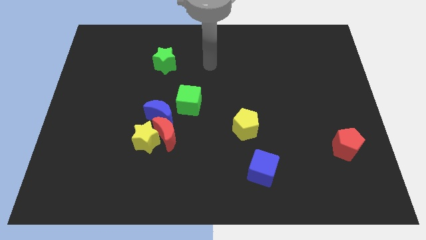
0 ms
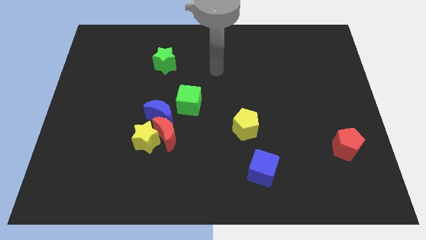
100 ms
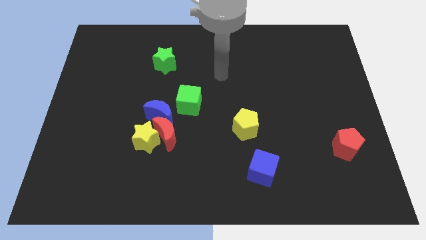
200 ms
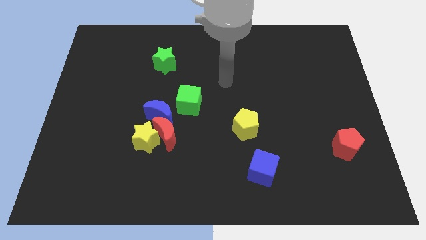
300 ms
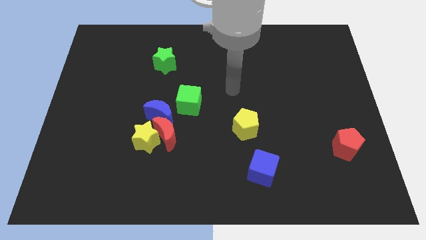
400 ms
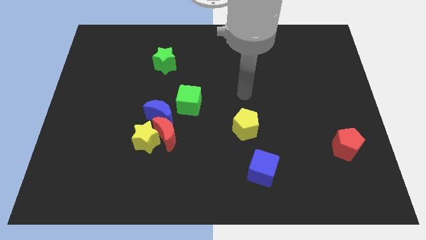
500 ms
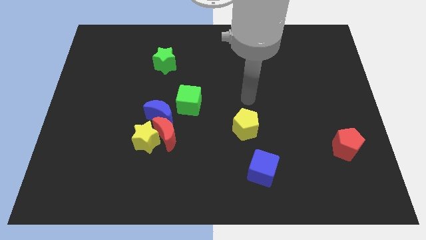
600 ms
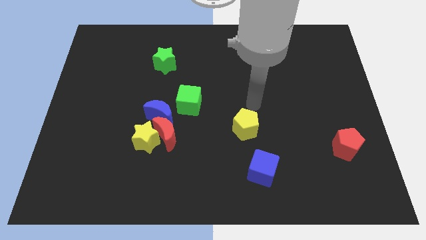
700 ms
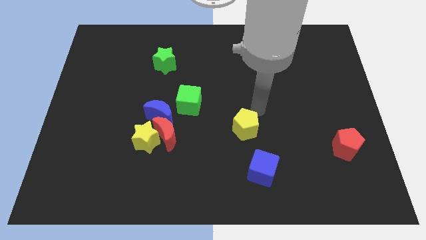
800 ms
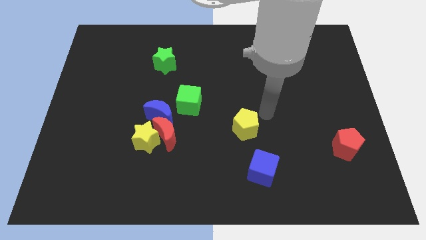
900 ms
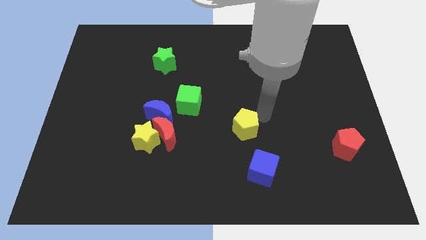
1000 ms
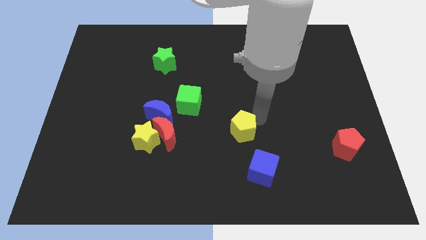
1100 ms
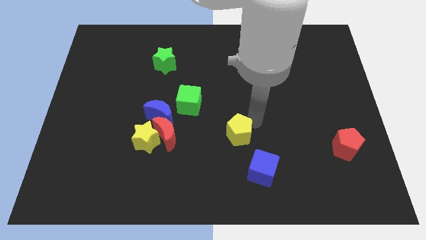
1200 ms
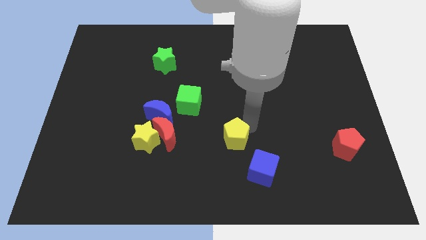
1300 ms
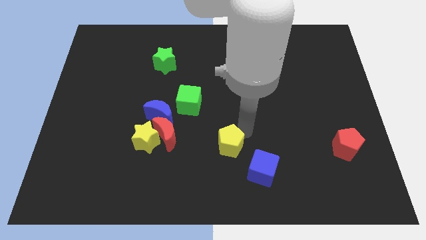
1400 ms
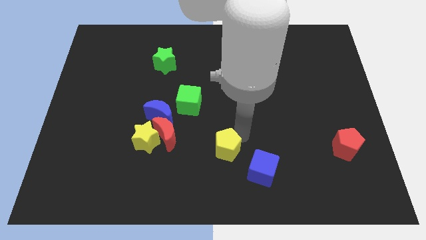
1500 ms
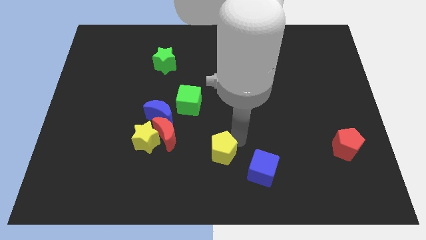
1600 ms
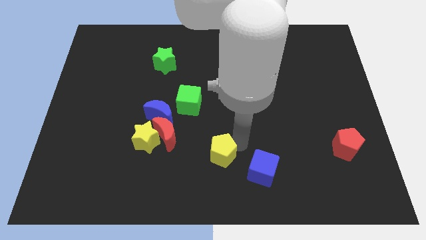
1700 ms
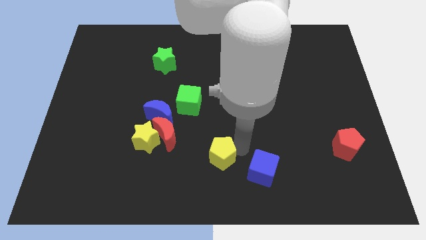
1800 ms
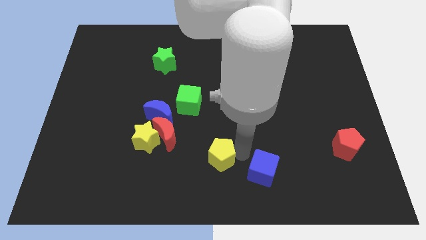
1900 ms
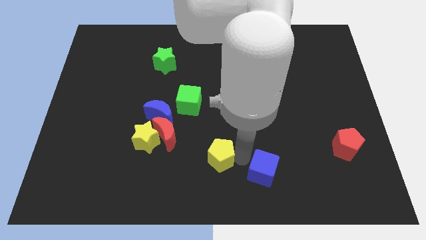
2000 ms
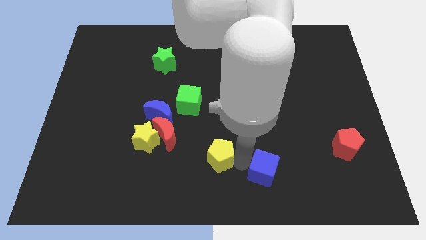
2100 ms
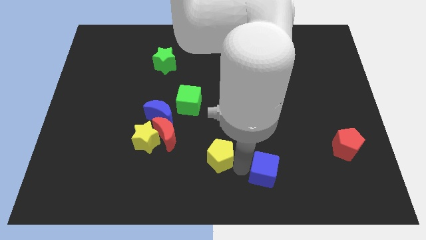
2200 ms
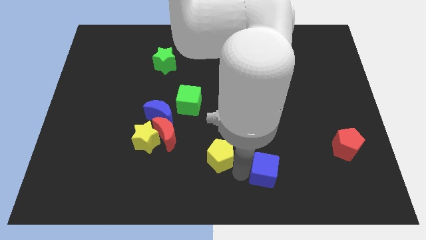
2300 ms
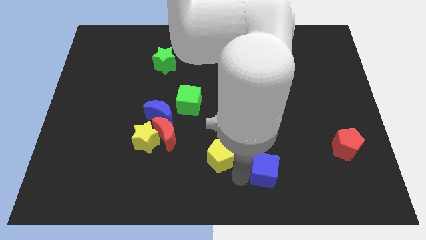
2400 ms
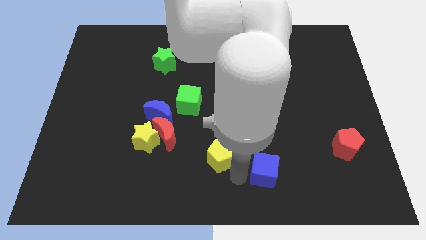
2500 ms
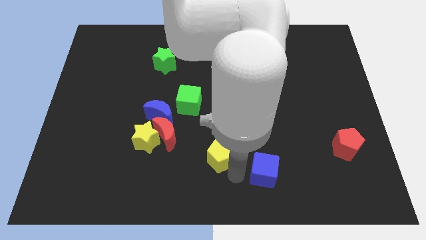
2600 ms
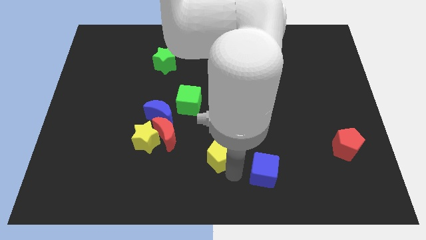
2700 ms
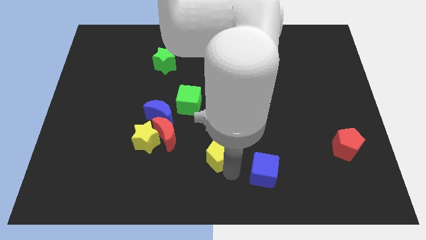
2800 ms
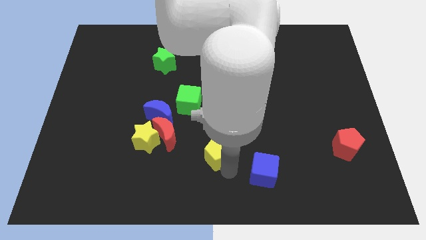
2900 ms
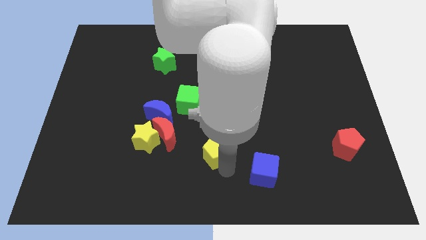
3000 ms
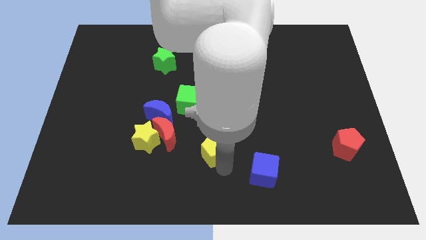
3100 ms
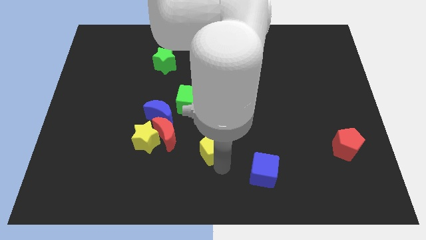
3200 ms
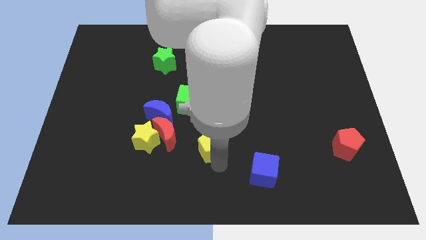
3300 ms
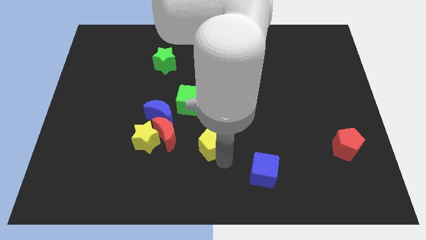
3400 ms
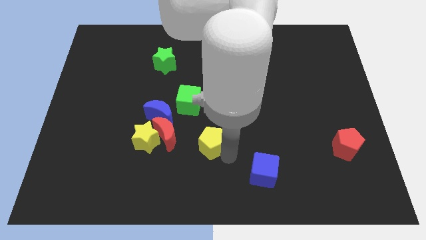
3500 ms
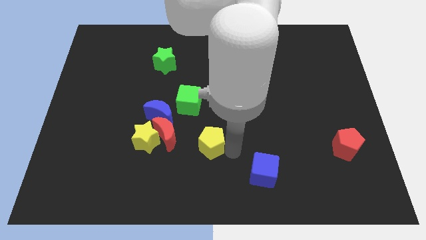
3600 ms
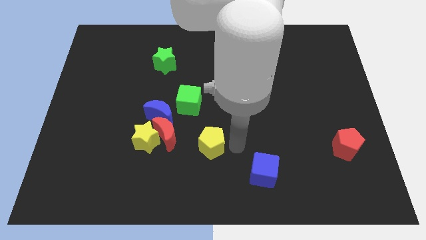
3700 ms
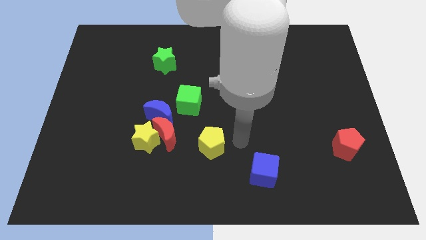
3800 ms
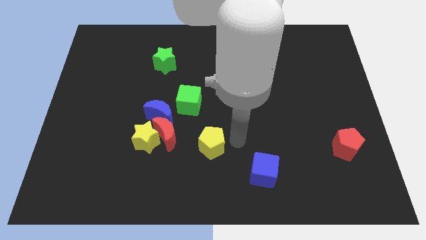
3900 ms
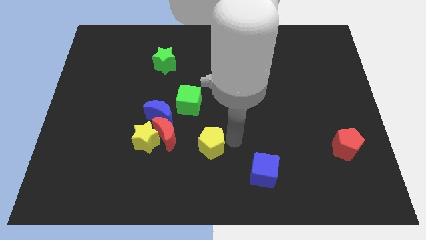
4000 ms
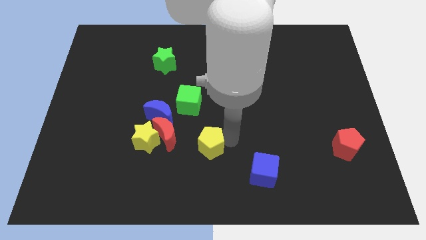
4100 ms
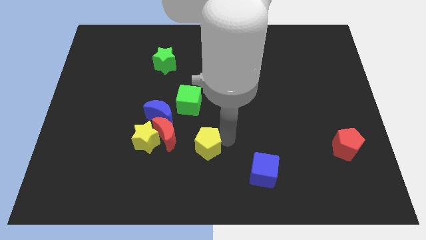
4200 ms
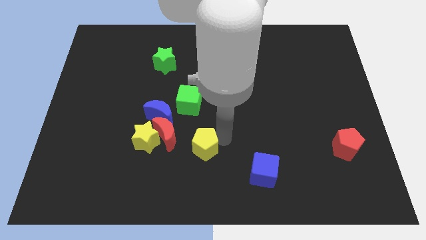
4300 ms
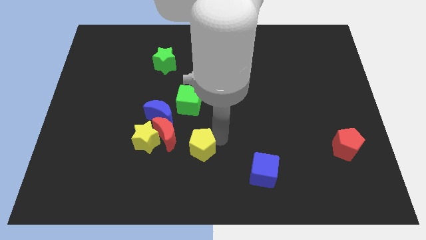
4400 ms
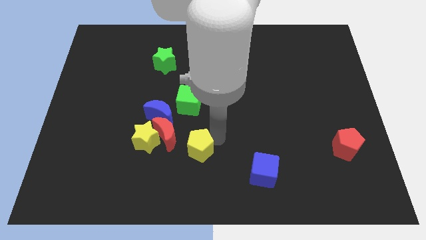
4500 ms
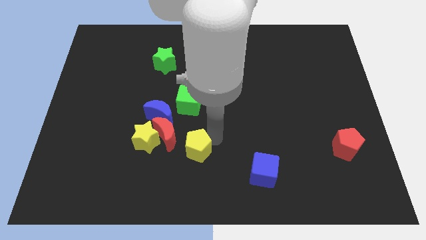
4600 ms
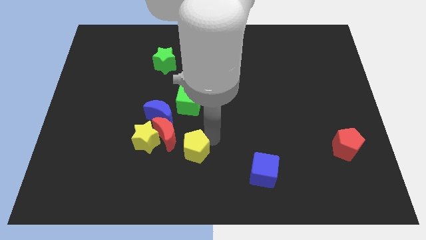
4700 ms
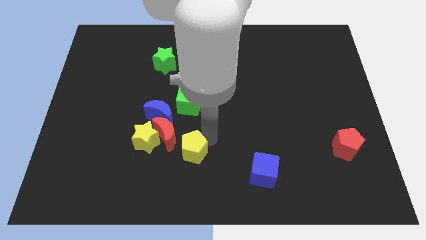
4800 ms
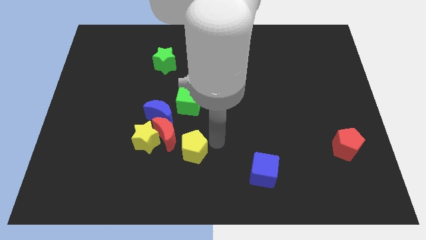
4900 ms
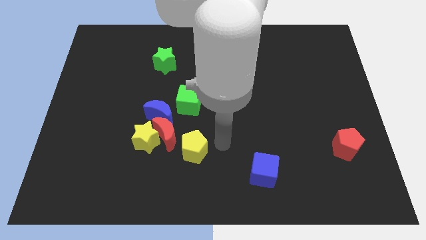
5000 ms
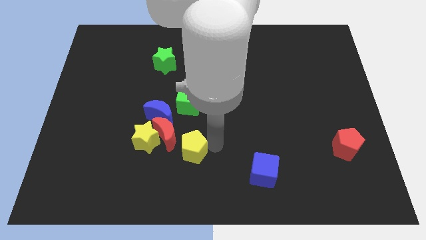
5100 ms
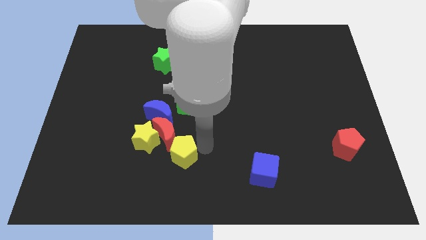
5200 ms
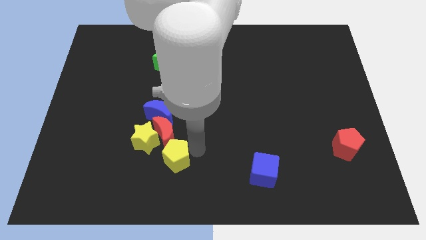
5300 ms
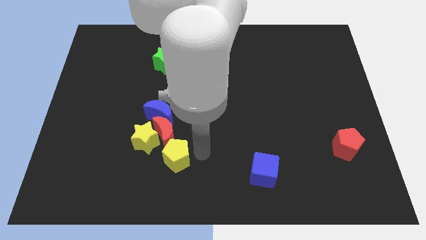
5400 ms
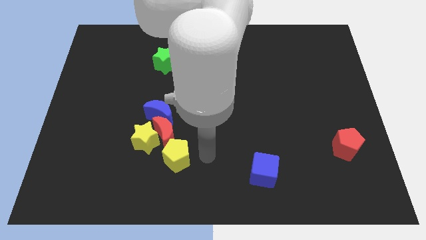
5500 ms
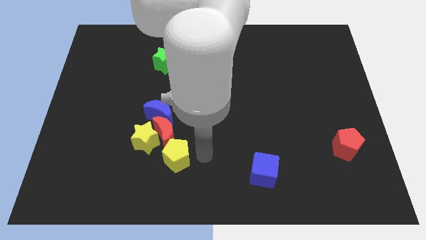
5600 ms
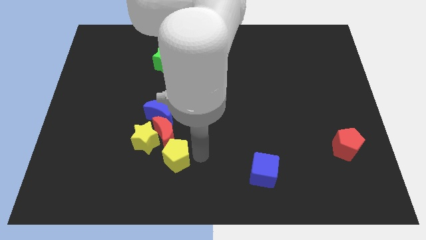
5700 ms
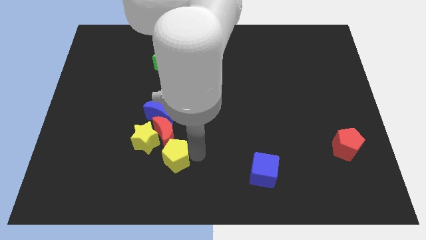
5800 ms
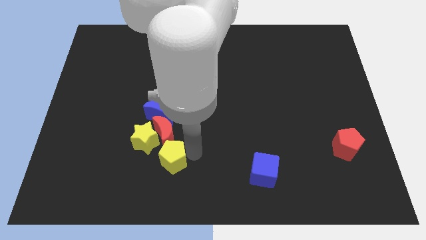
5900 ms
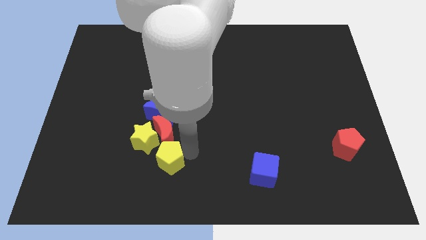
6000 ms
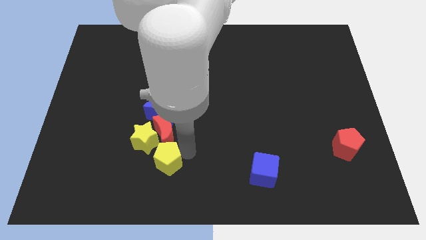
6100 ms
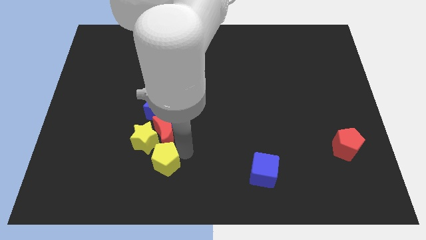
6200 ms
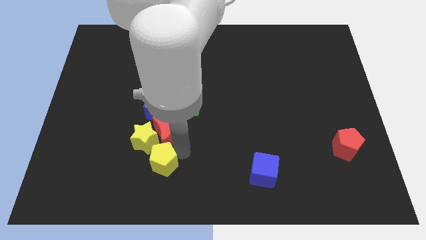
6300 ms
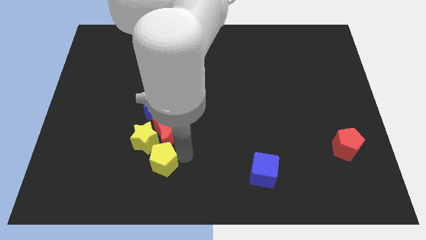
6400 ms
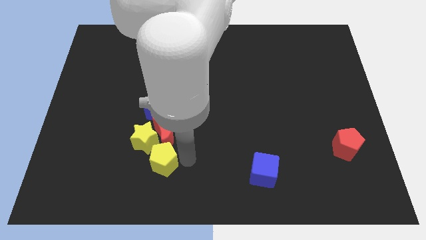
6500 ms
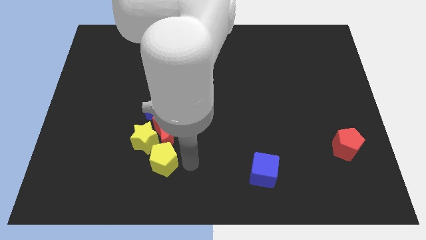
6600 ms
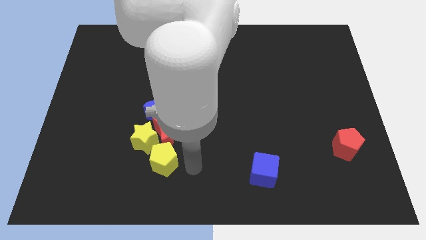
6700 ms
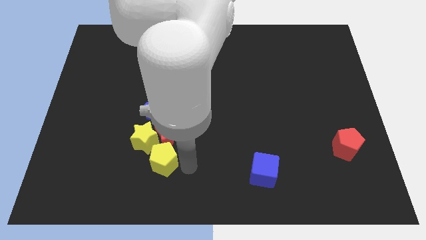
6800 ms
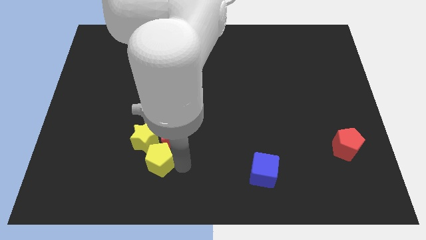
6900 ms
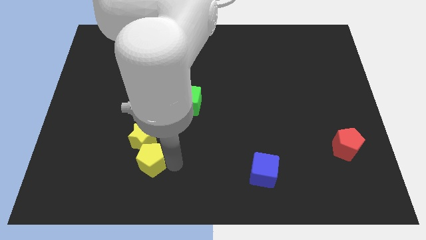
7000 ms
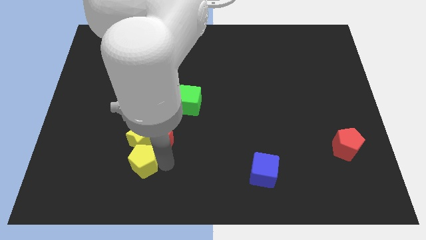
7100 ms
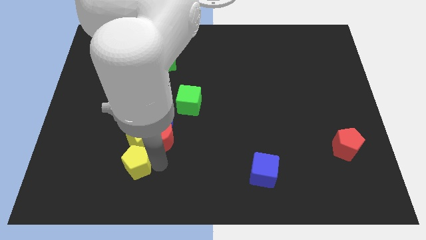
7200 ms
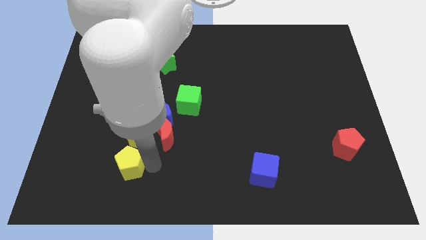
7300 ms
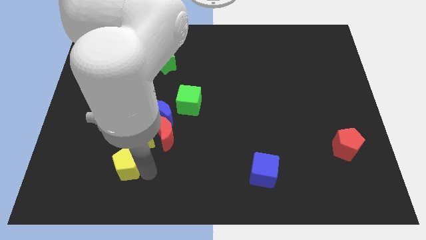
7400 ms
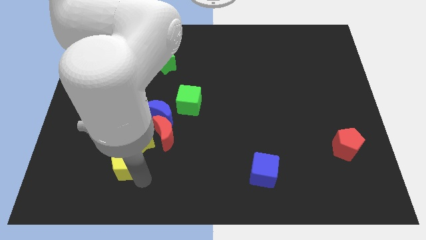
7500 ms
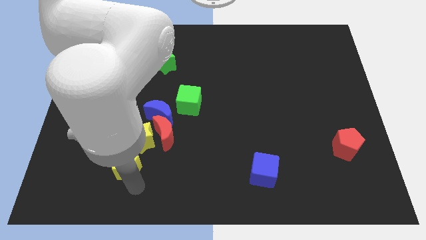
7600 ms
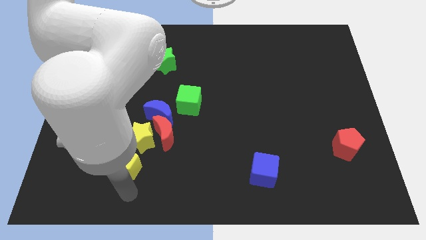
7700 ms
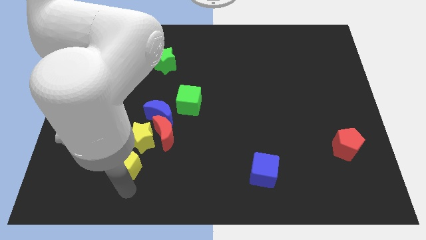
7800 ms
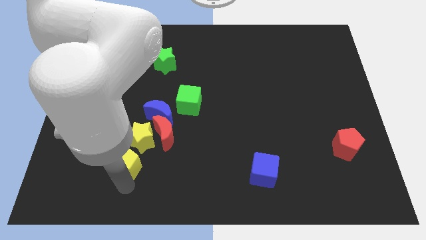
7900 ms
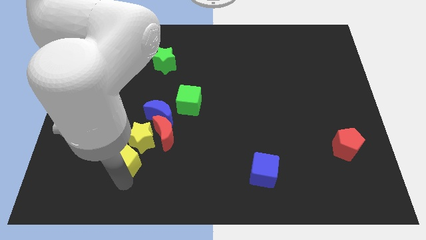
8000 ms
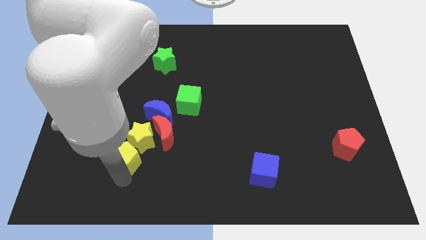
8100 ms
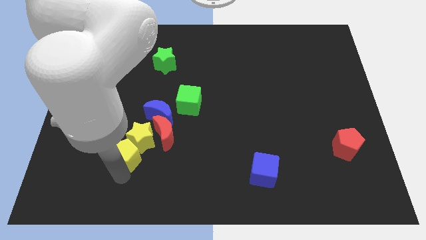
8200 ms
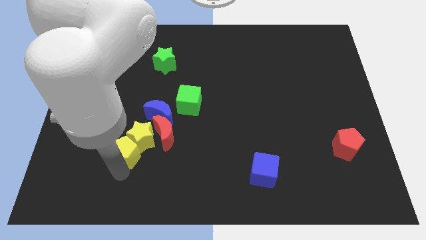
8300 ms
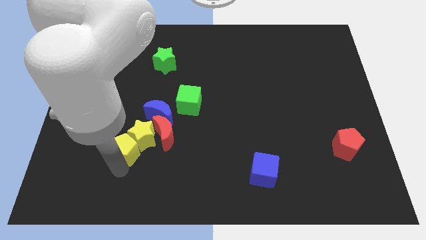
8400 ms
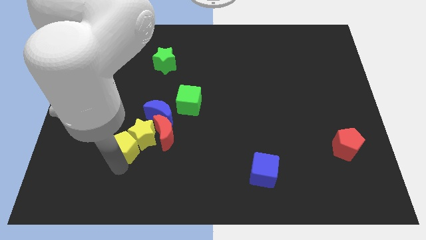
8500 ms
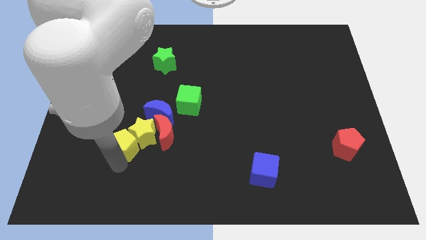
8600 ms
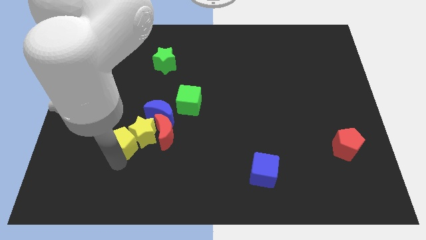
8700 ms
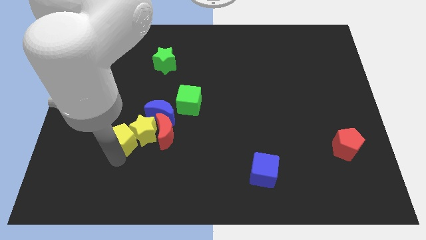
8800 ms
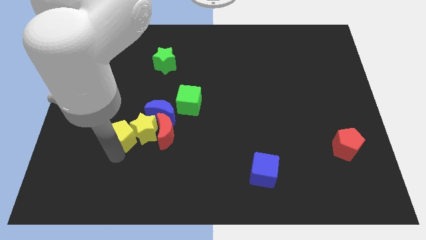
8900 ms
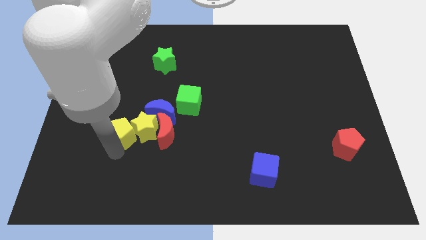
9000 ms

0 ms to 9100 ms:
put the yellow pentagon to the top left side of the yellow star
